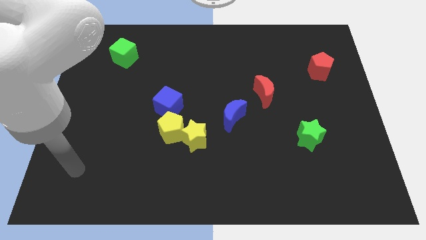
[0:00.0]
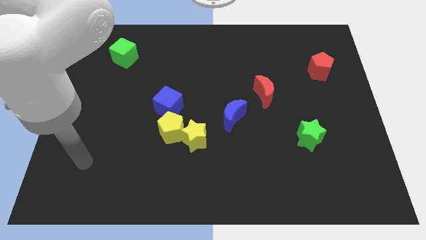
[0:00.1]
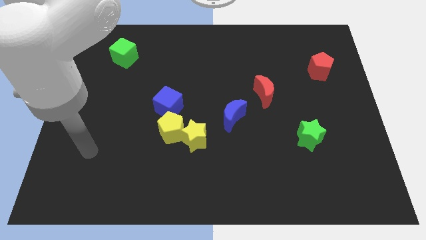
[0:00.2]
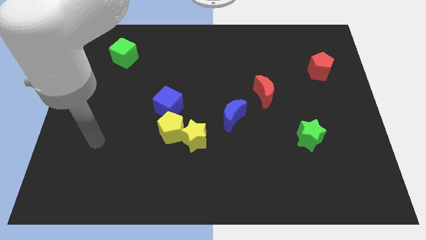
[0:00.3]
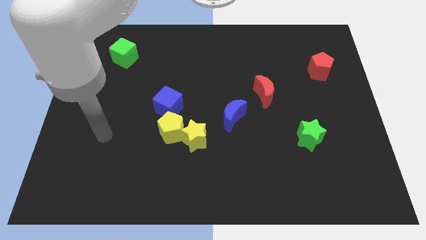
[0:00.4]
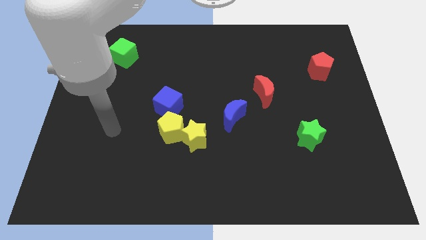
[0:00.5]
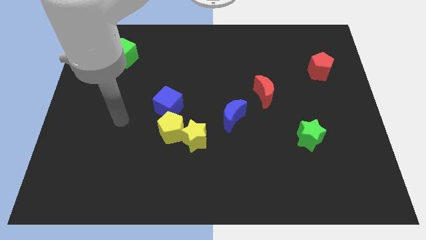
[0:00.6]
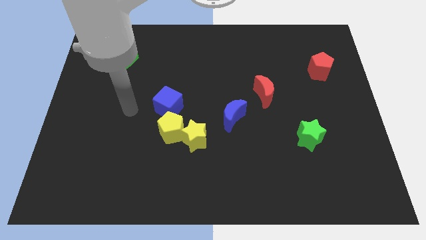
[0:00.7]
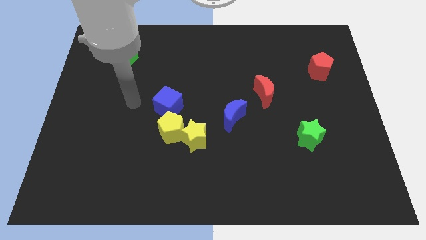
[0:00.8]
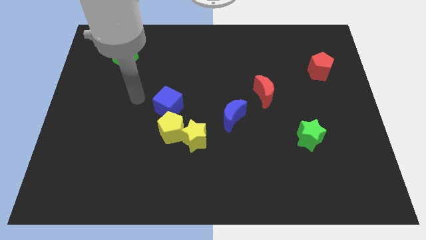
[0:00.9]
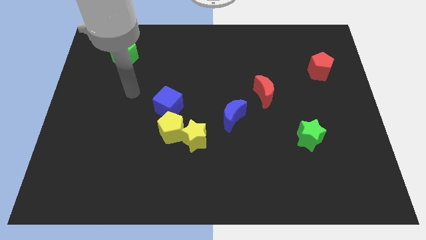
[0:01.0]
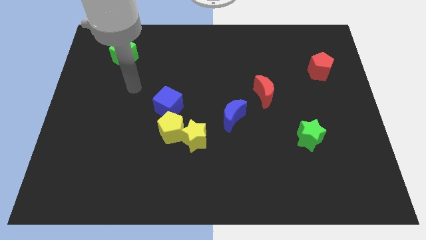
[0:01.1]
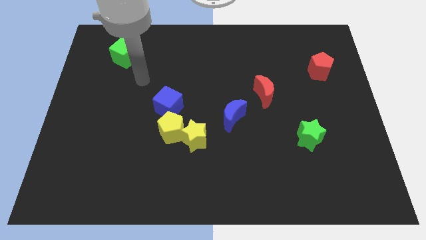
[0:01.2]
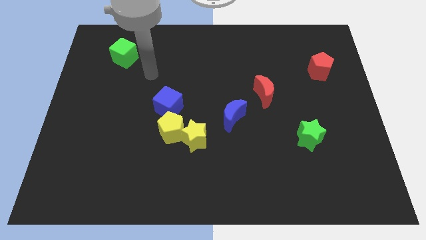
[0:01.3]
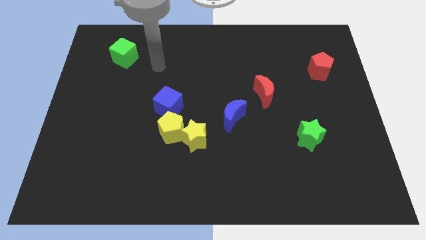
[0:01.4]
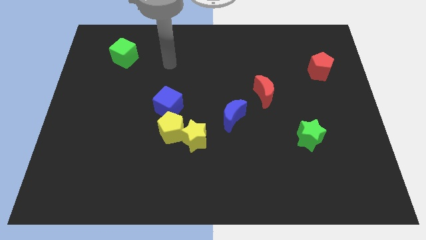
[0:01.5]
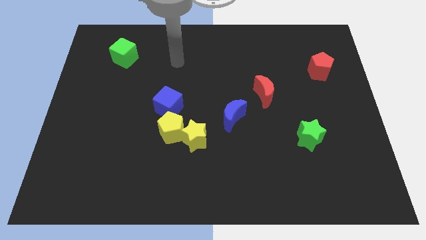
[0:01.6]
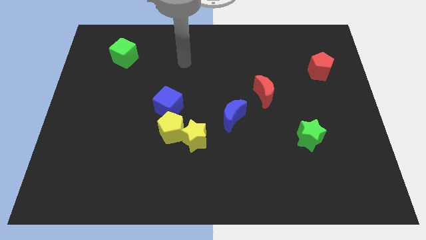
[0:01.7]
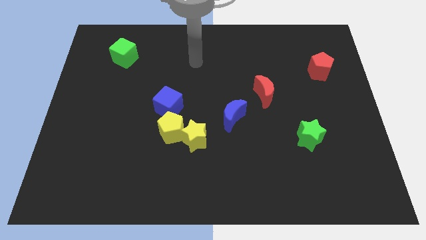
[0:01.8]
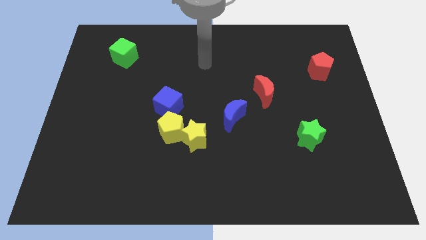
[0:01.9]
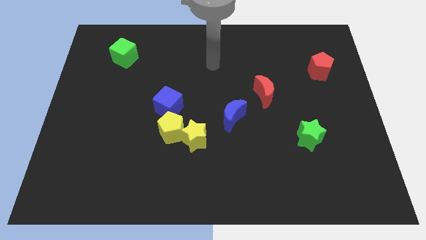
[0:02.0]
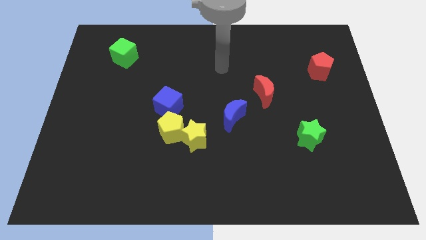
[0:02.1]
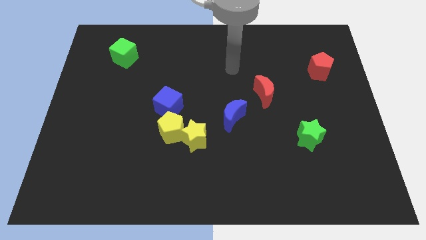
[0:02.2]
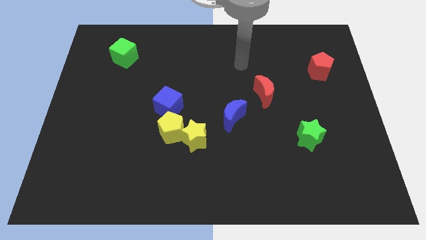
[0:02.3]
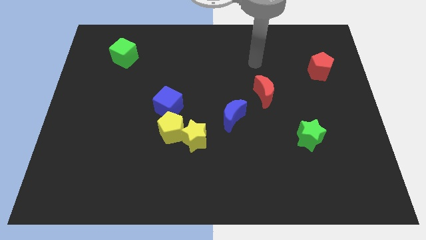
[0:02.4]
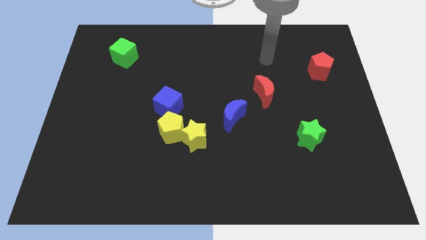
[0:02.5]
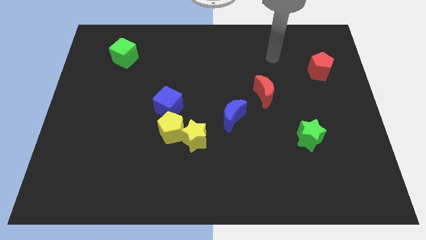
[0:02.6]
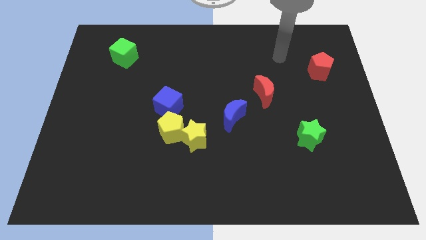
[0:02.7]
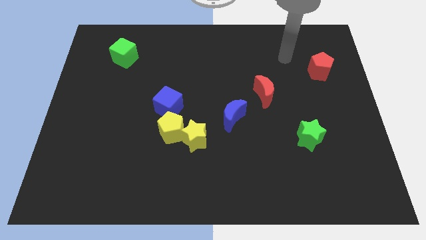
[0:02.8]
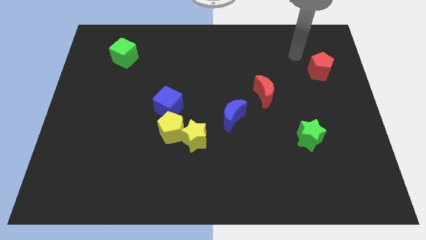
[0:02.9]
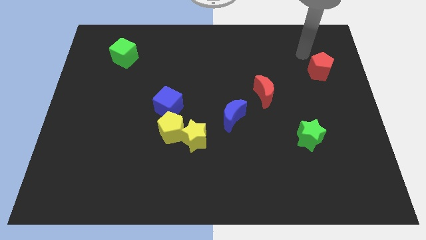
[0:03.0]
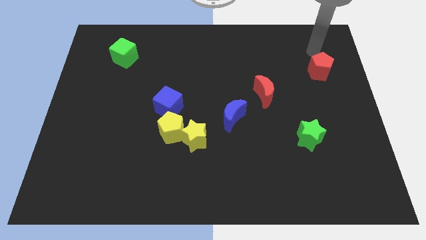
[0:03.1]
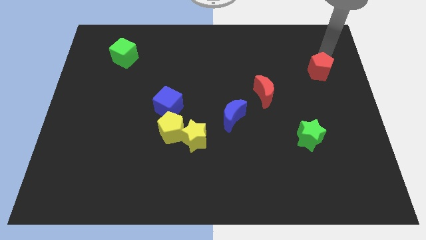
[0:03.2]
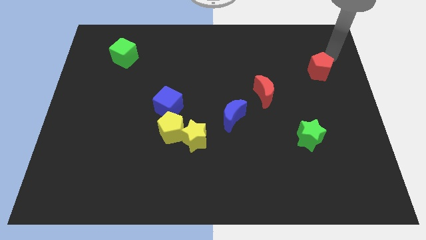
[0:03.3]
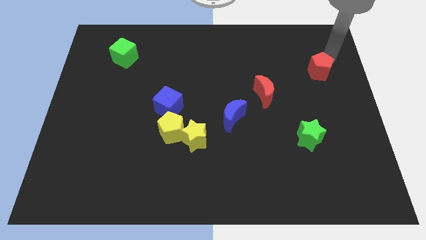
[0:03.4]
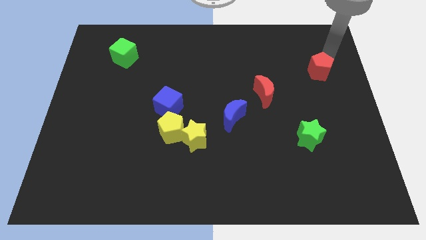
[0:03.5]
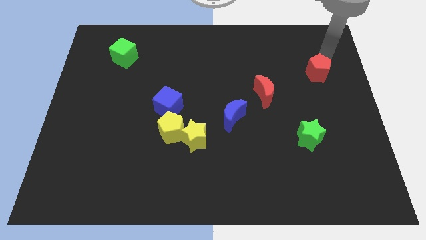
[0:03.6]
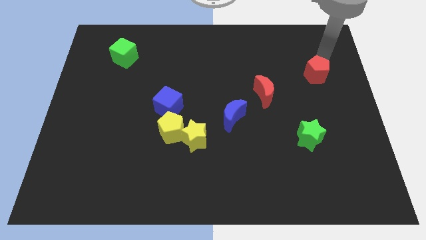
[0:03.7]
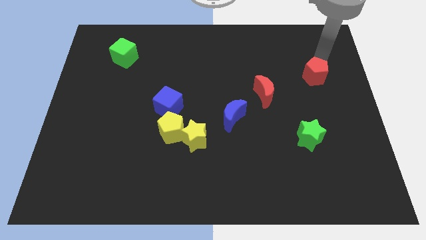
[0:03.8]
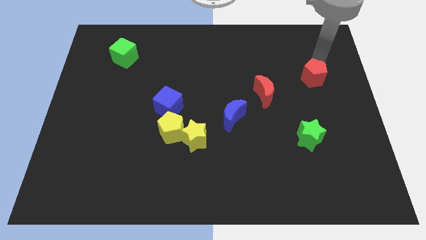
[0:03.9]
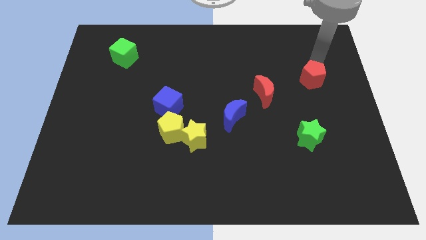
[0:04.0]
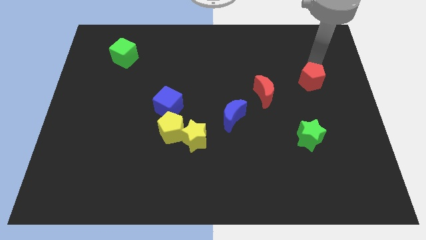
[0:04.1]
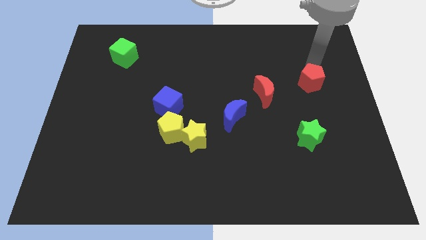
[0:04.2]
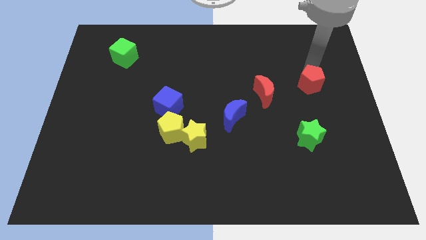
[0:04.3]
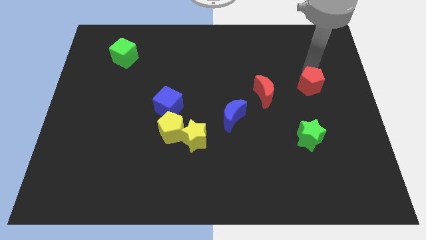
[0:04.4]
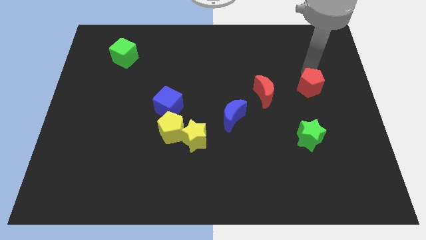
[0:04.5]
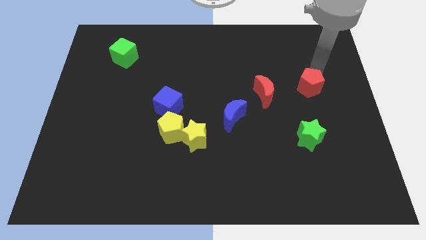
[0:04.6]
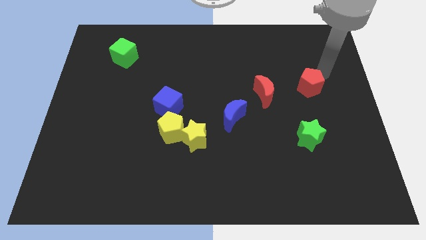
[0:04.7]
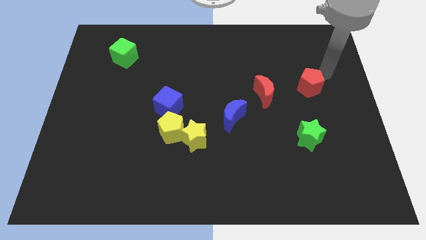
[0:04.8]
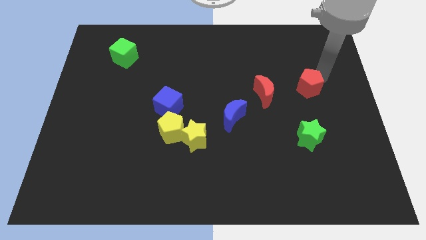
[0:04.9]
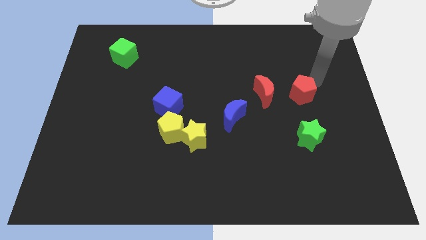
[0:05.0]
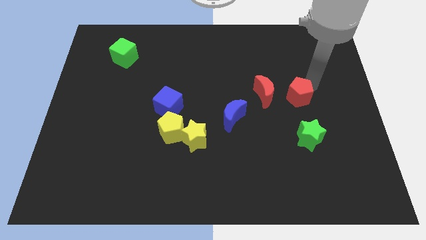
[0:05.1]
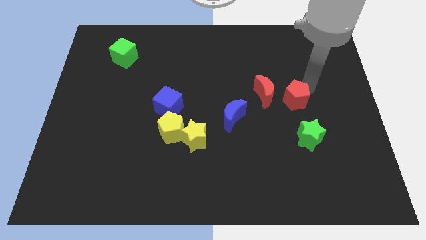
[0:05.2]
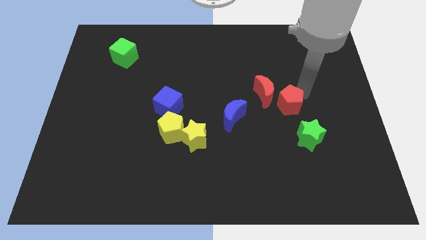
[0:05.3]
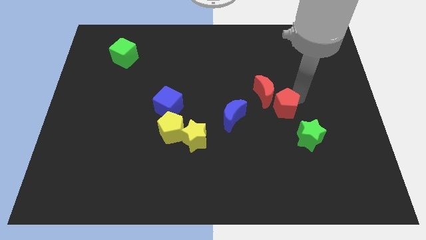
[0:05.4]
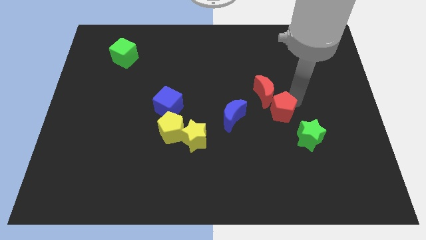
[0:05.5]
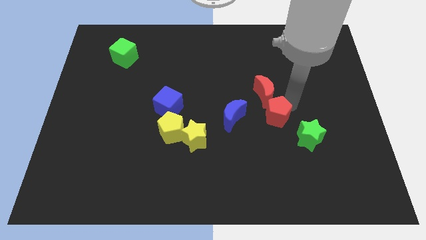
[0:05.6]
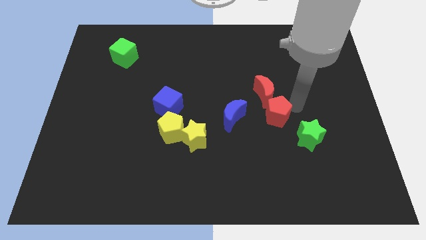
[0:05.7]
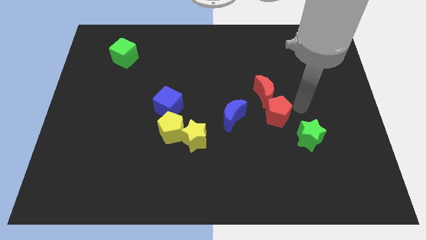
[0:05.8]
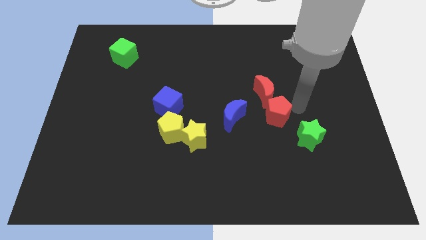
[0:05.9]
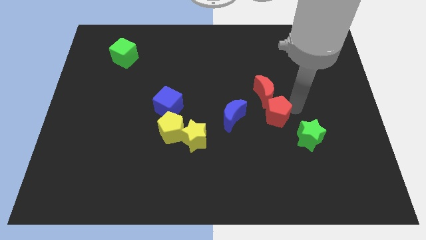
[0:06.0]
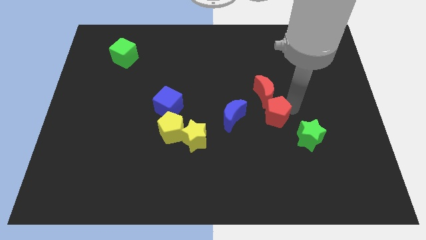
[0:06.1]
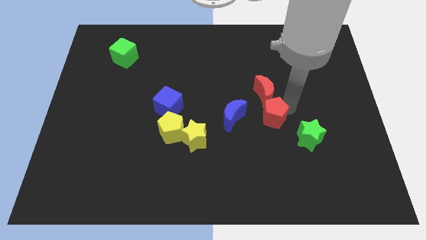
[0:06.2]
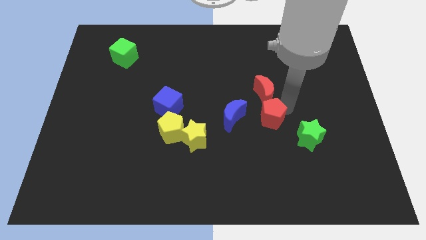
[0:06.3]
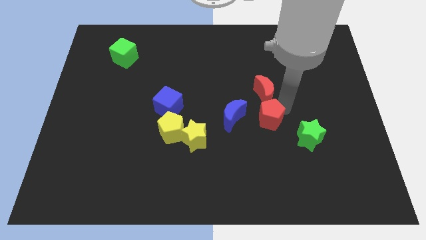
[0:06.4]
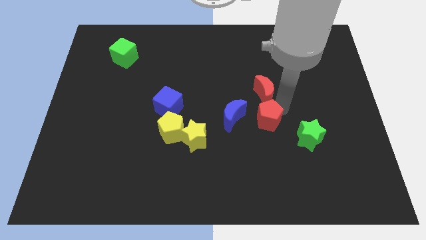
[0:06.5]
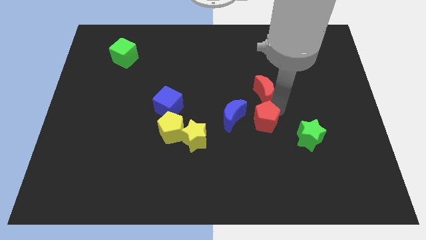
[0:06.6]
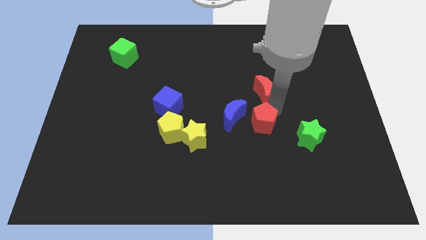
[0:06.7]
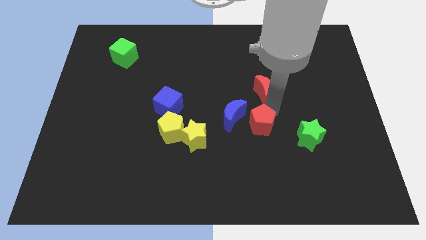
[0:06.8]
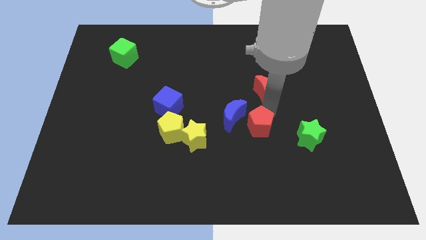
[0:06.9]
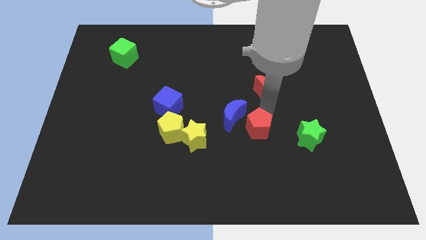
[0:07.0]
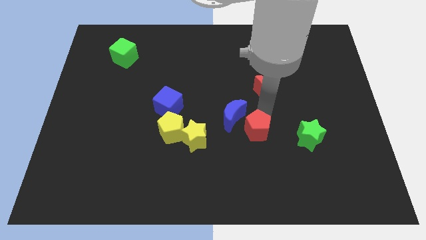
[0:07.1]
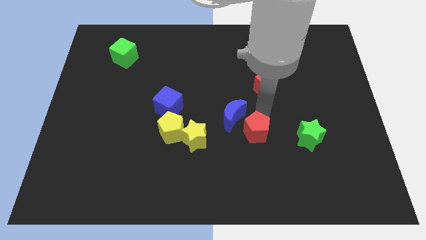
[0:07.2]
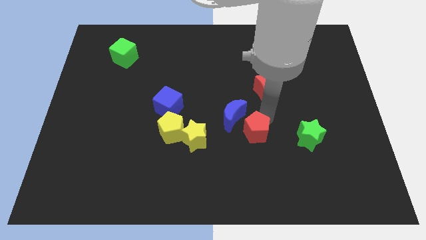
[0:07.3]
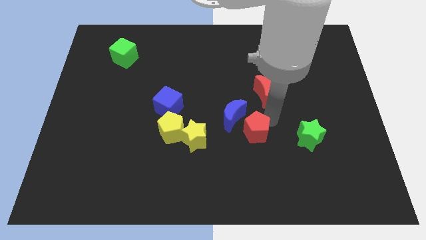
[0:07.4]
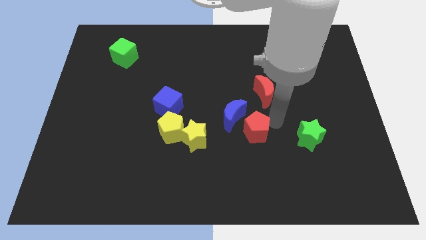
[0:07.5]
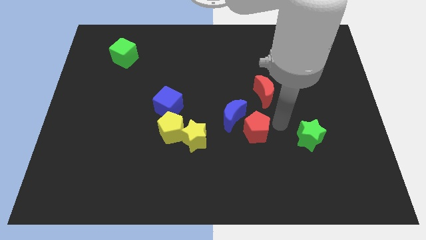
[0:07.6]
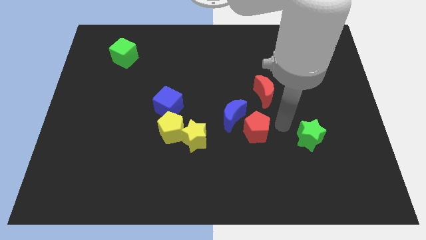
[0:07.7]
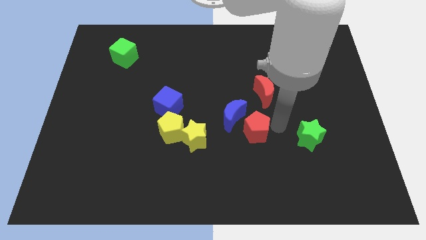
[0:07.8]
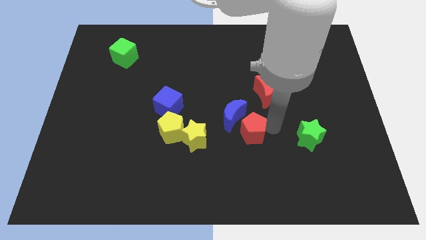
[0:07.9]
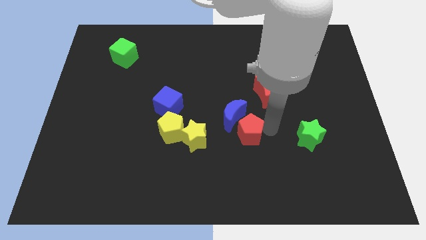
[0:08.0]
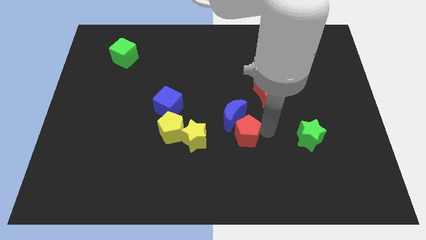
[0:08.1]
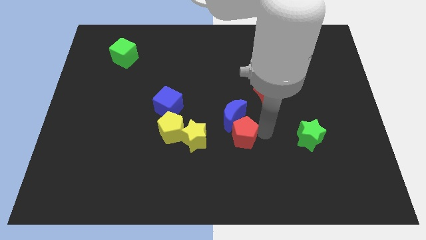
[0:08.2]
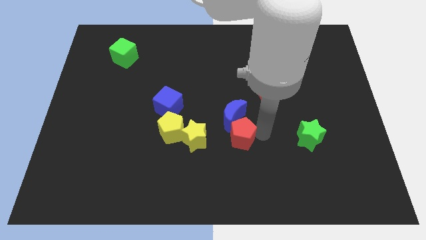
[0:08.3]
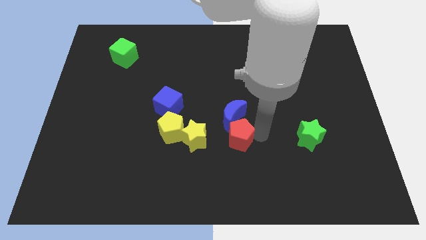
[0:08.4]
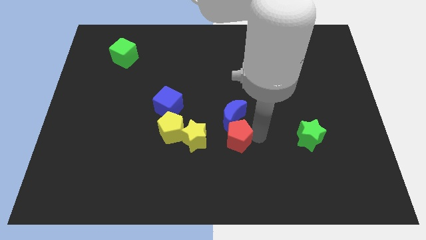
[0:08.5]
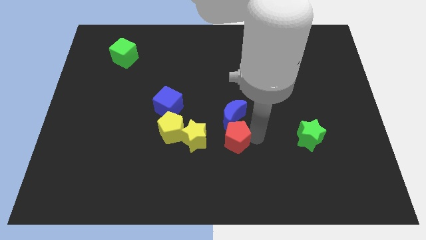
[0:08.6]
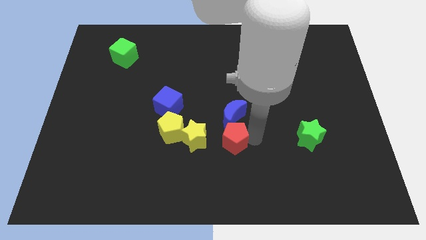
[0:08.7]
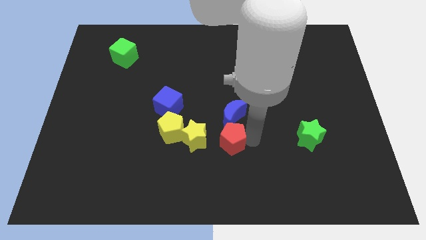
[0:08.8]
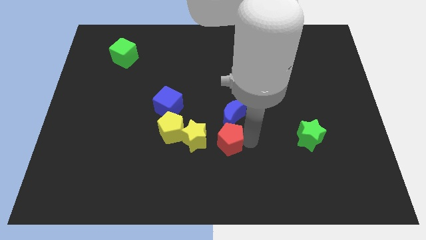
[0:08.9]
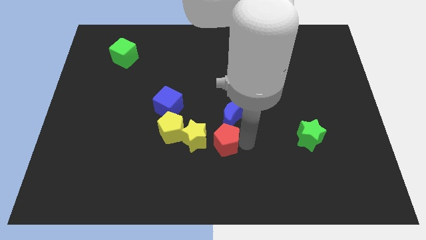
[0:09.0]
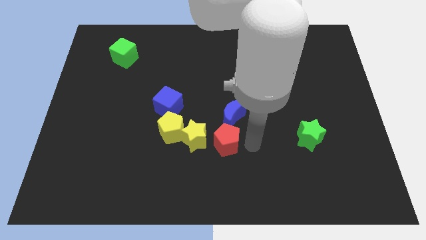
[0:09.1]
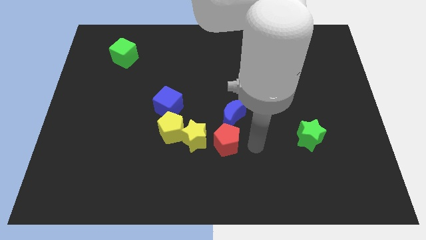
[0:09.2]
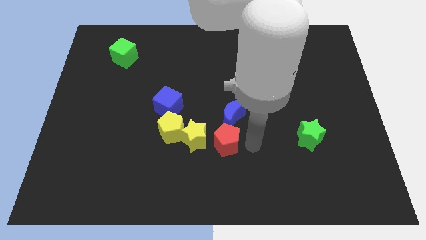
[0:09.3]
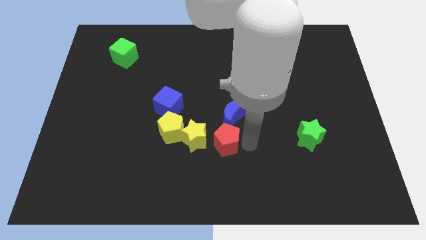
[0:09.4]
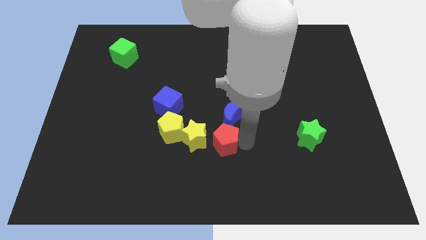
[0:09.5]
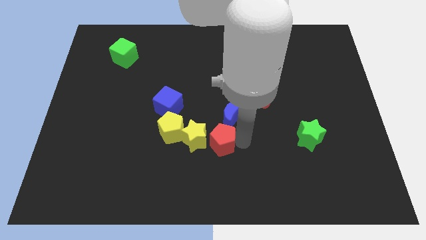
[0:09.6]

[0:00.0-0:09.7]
move the red pentagon next to the yellow star
